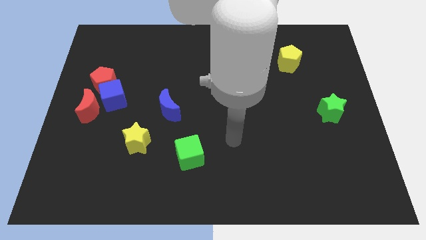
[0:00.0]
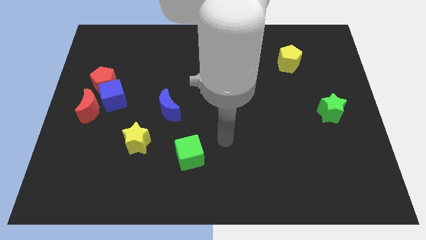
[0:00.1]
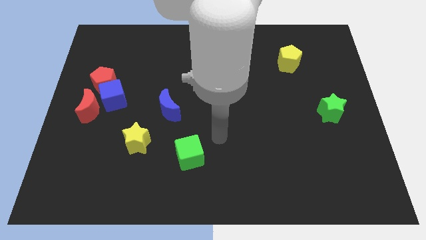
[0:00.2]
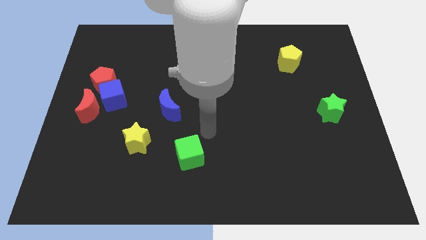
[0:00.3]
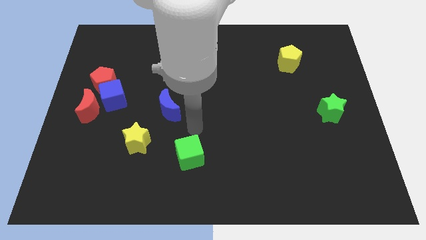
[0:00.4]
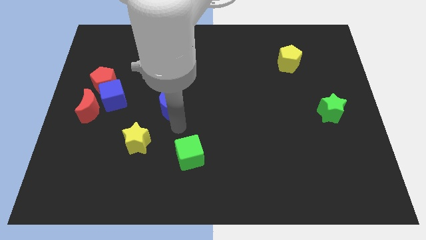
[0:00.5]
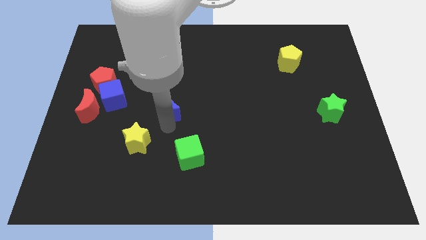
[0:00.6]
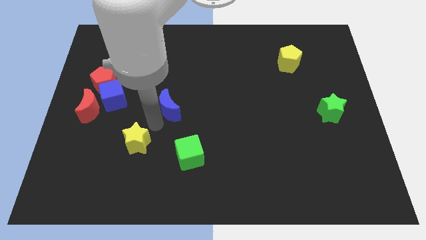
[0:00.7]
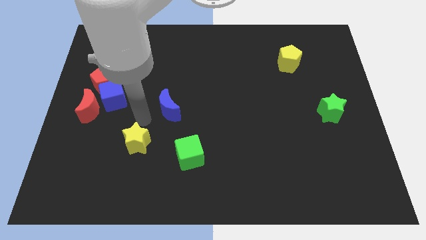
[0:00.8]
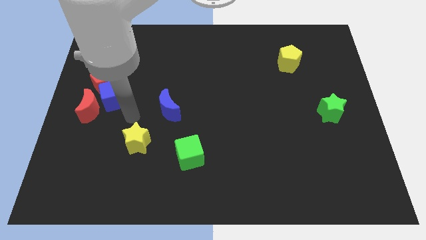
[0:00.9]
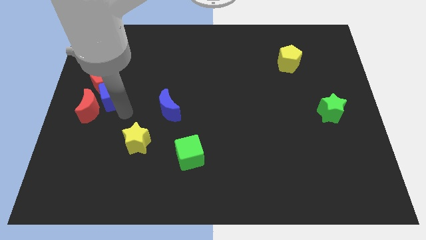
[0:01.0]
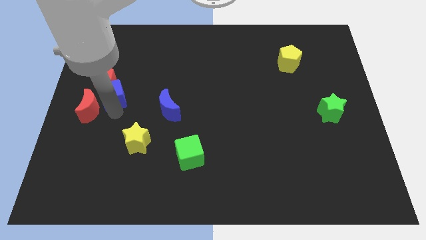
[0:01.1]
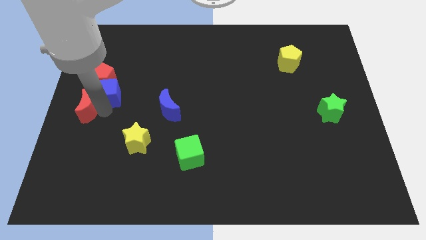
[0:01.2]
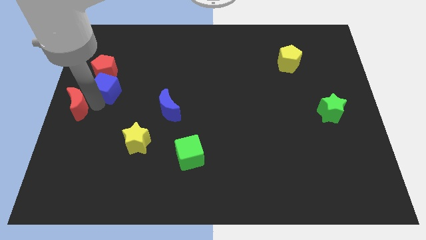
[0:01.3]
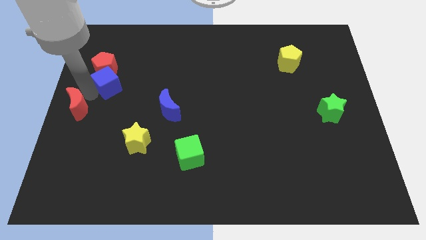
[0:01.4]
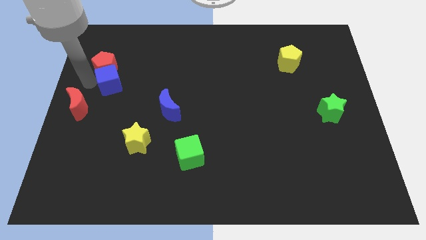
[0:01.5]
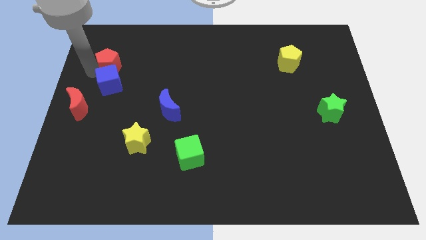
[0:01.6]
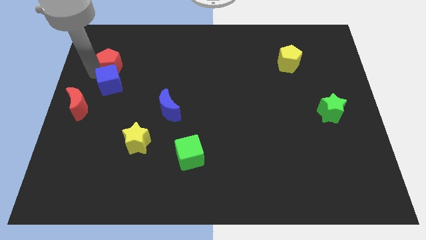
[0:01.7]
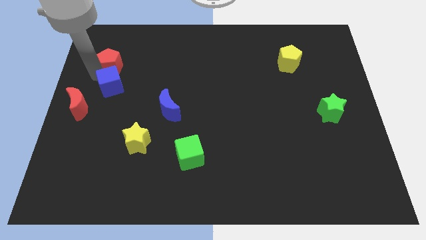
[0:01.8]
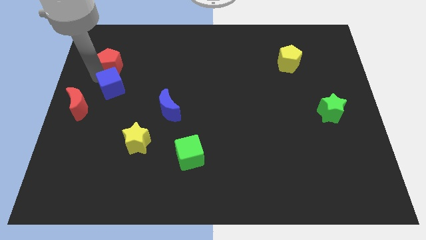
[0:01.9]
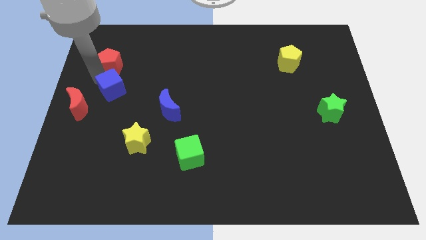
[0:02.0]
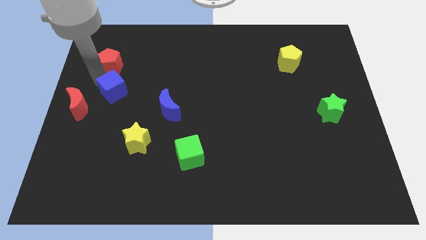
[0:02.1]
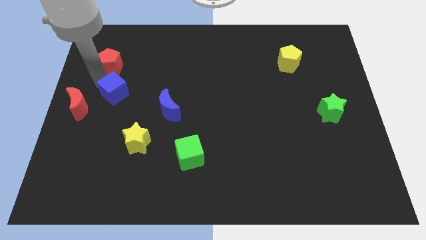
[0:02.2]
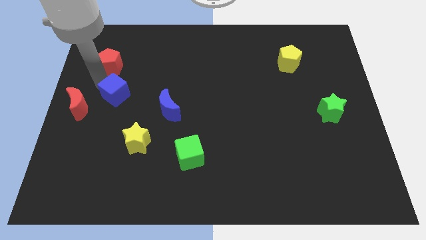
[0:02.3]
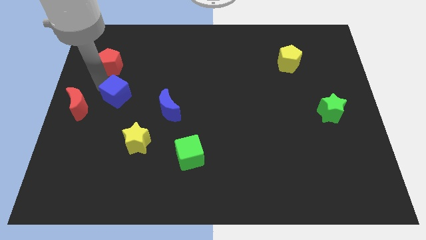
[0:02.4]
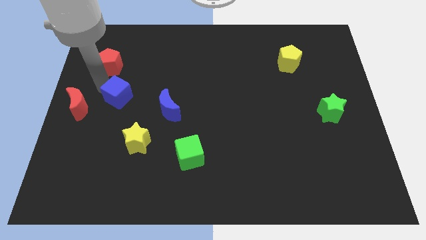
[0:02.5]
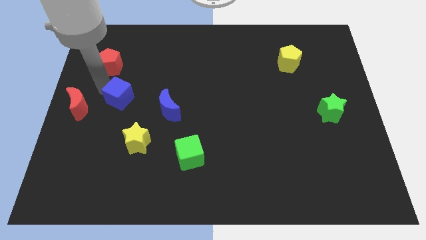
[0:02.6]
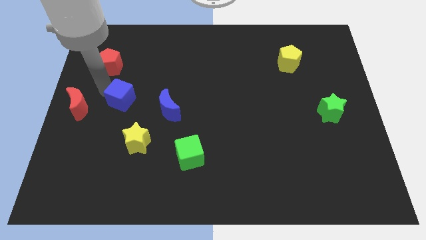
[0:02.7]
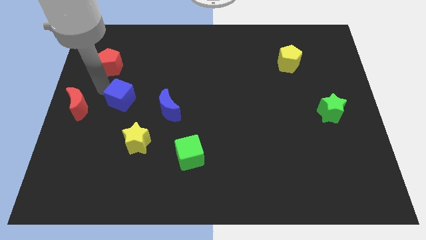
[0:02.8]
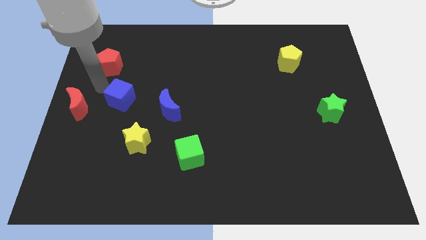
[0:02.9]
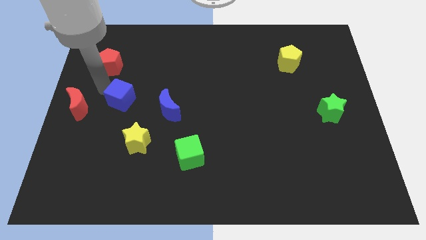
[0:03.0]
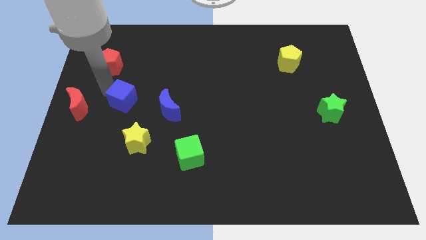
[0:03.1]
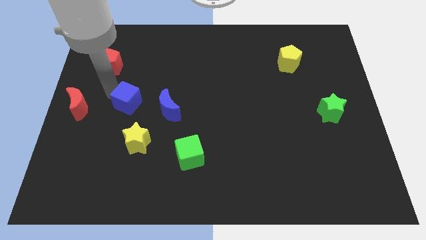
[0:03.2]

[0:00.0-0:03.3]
move the blue cube away from the red pentagon and red moon

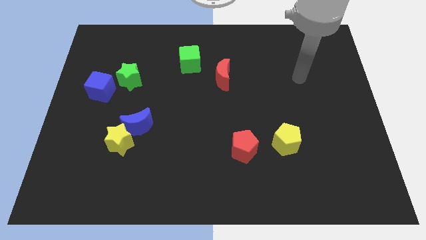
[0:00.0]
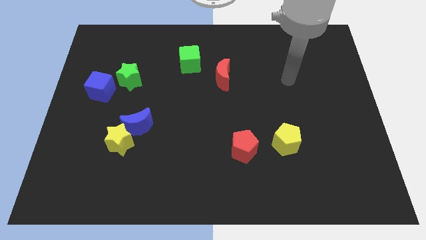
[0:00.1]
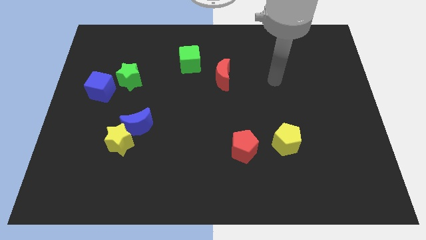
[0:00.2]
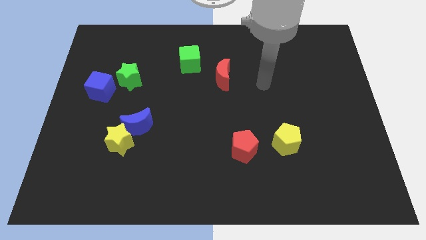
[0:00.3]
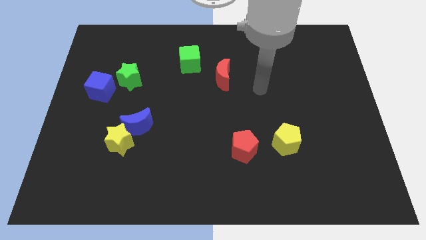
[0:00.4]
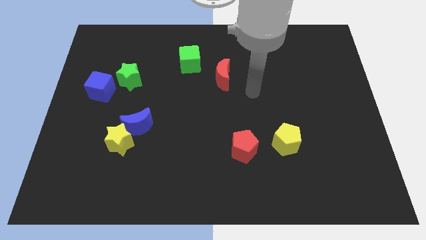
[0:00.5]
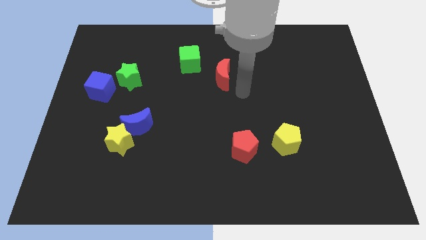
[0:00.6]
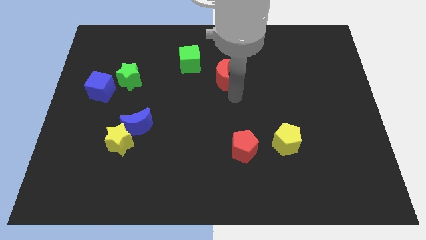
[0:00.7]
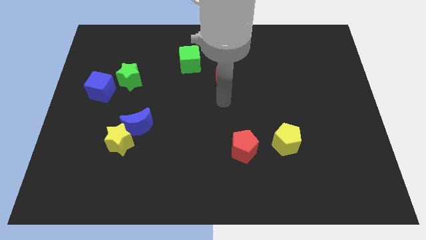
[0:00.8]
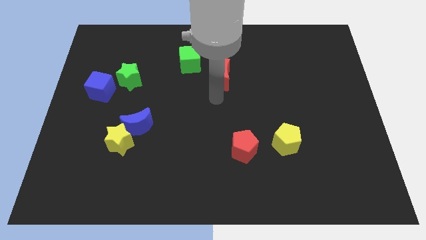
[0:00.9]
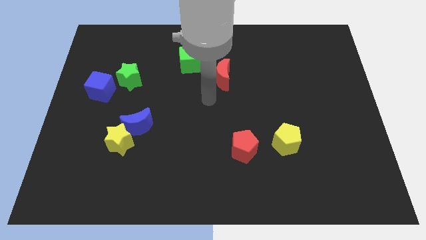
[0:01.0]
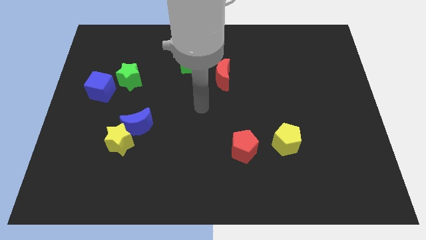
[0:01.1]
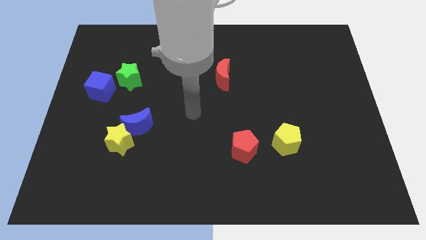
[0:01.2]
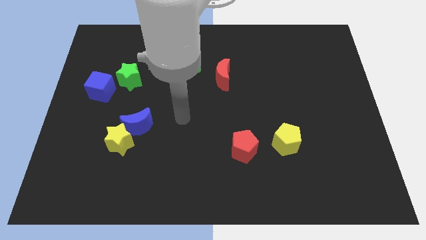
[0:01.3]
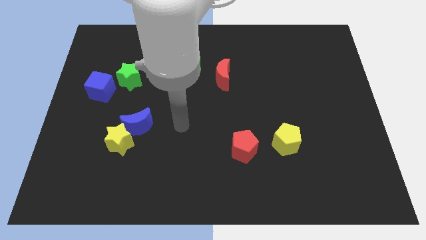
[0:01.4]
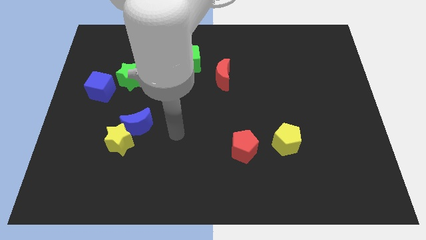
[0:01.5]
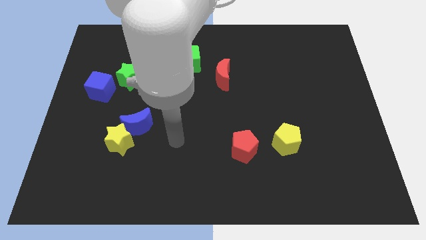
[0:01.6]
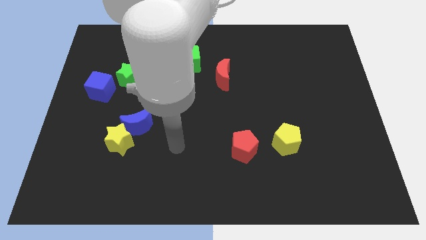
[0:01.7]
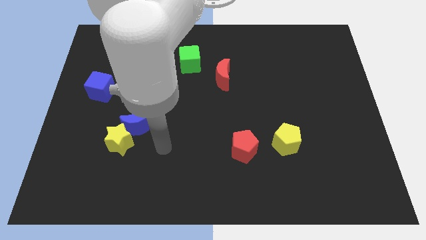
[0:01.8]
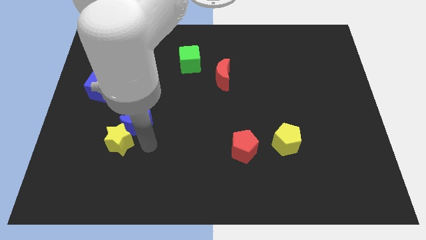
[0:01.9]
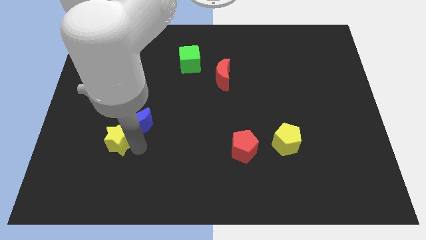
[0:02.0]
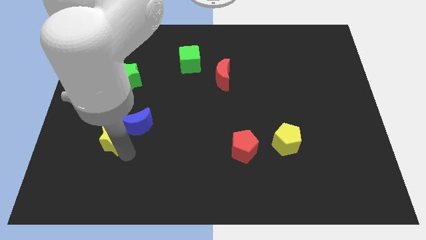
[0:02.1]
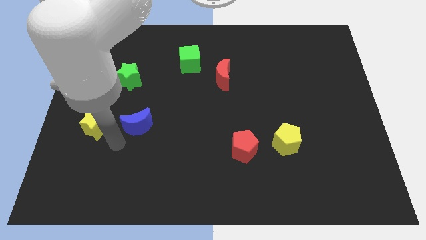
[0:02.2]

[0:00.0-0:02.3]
pull the blue moon apart from the yellow star

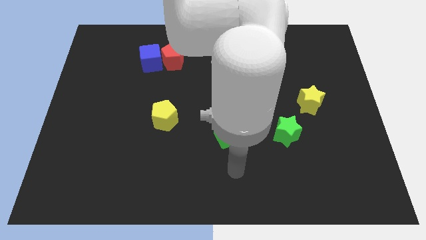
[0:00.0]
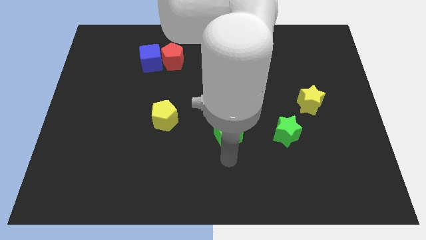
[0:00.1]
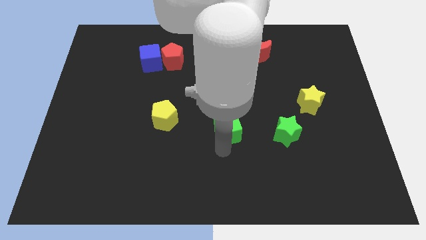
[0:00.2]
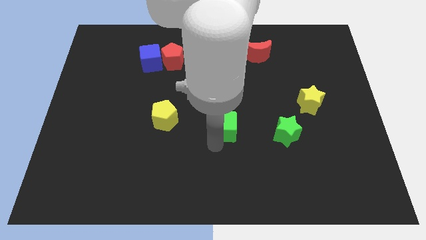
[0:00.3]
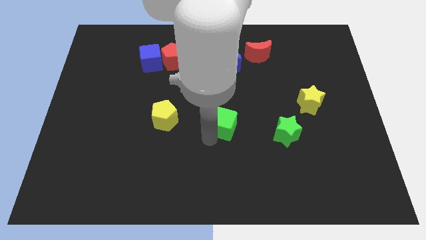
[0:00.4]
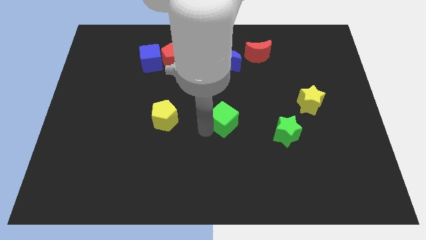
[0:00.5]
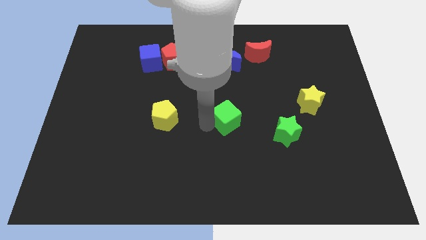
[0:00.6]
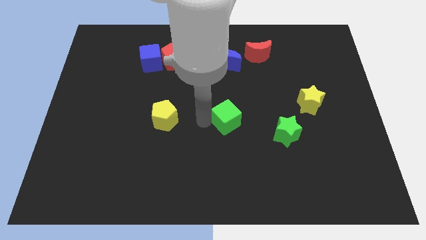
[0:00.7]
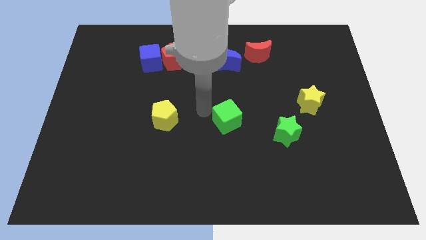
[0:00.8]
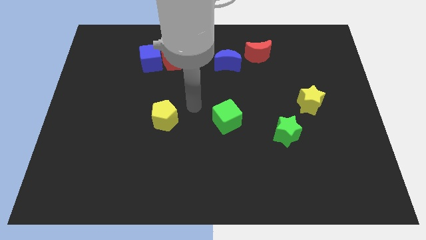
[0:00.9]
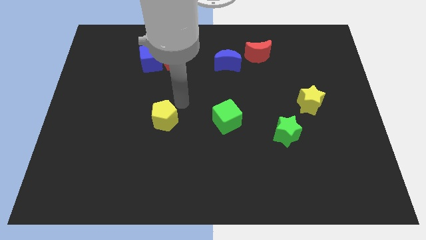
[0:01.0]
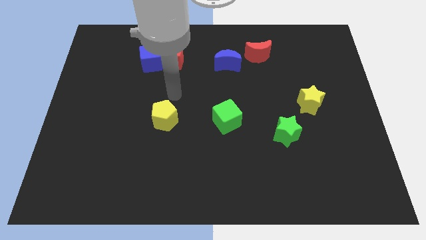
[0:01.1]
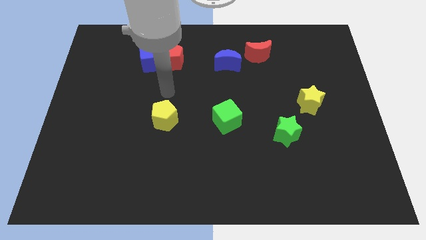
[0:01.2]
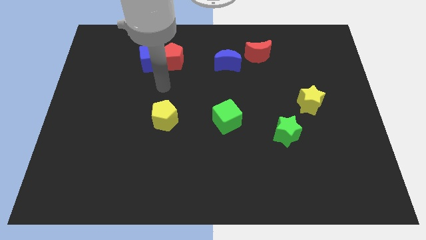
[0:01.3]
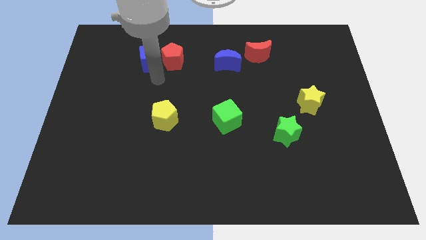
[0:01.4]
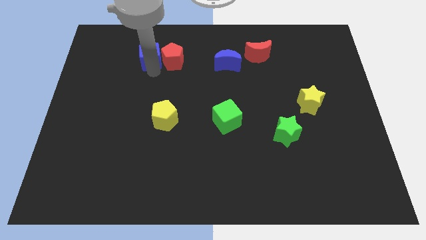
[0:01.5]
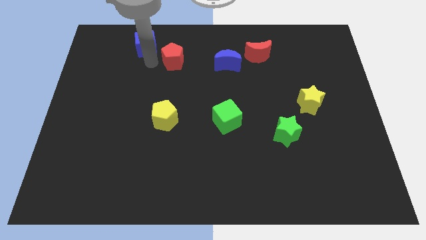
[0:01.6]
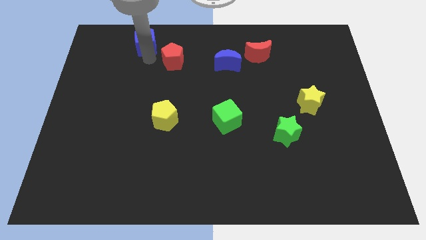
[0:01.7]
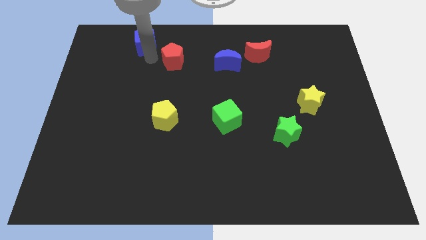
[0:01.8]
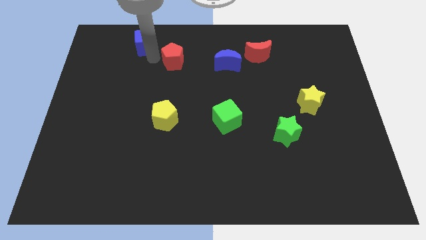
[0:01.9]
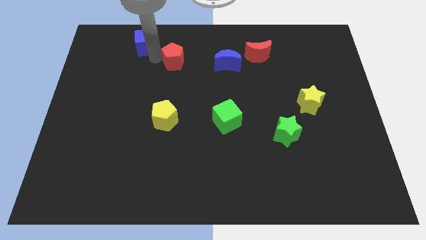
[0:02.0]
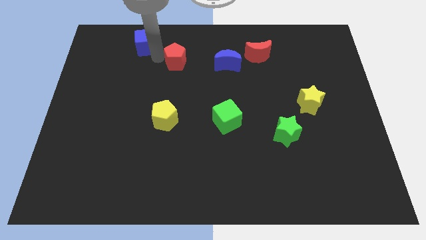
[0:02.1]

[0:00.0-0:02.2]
pull the red pentagon apart from the blue cube

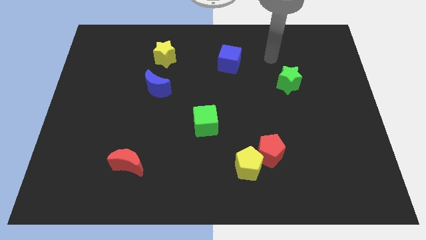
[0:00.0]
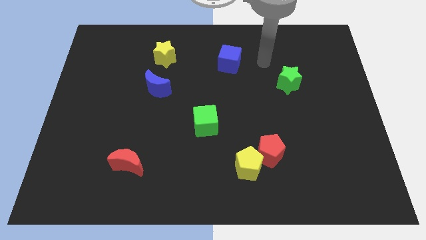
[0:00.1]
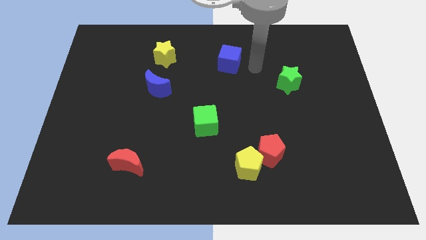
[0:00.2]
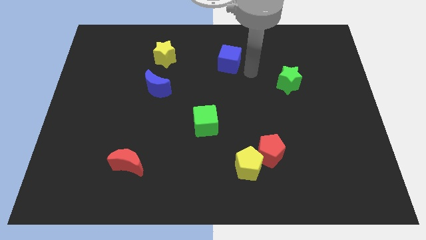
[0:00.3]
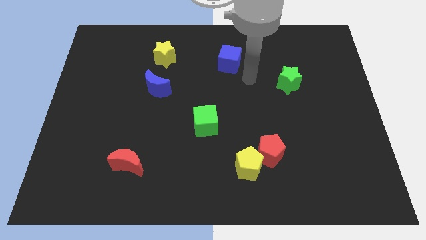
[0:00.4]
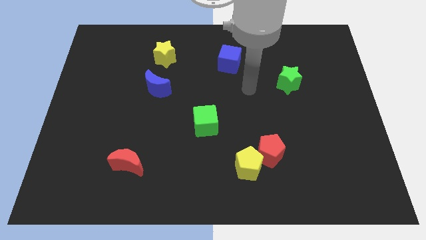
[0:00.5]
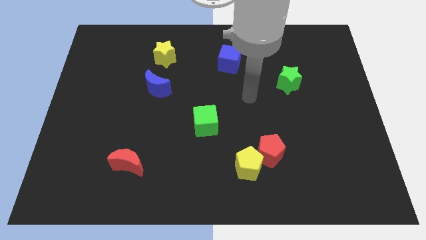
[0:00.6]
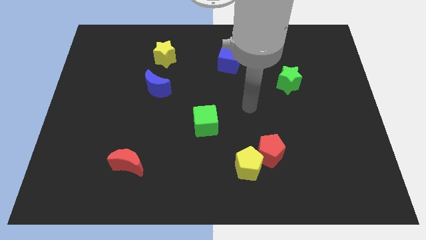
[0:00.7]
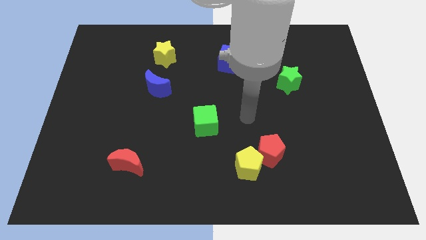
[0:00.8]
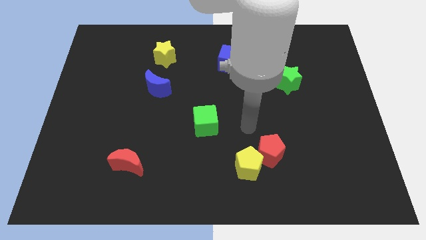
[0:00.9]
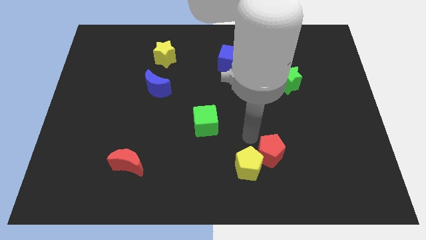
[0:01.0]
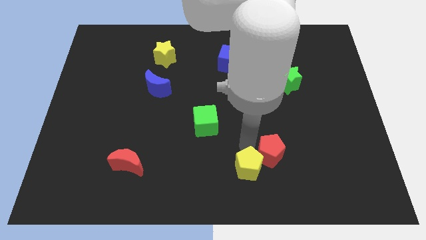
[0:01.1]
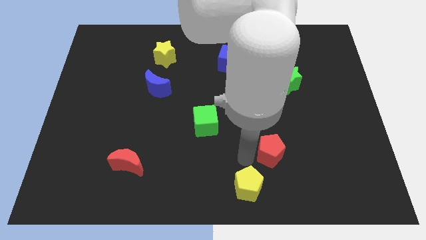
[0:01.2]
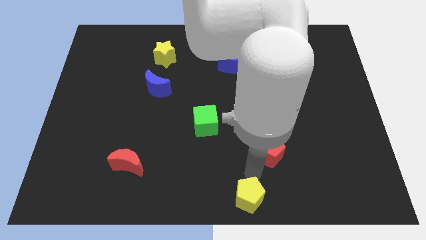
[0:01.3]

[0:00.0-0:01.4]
separate the red pentagon from the yellow pentagon

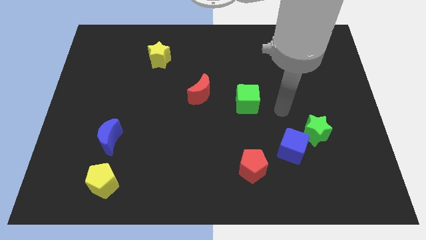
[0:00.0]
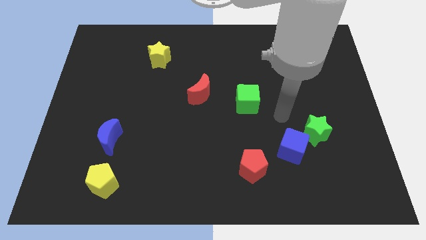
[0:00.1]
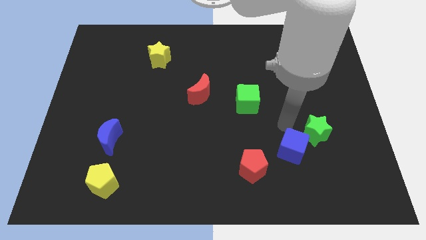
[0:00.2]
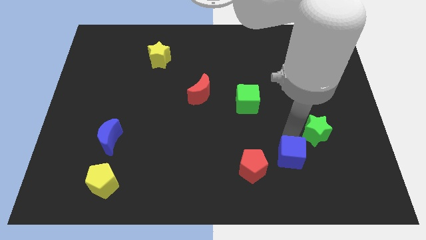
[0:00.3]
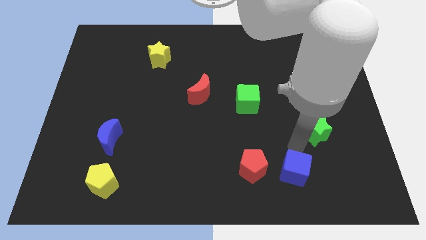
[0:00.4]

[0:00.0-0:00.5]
move the green star away from the blue cube
